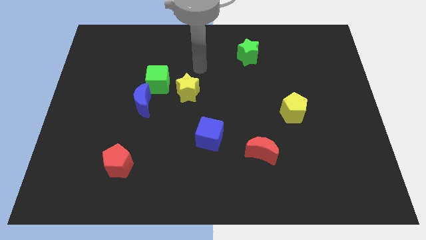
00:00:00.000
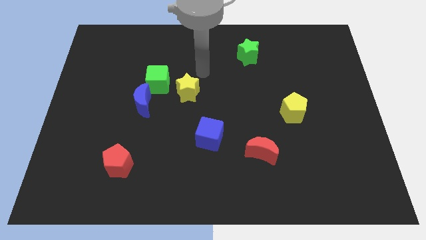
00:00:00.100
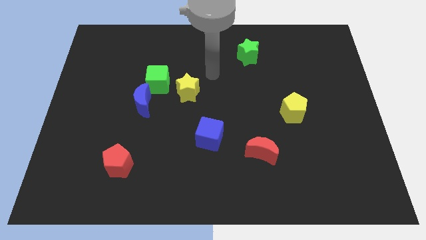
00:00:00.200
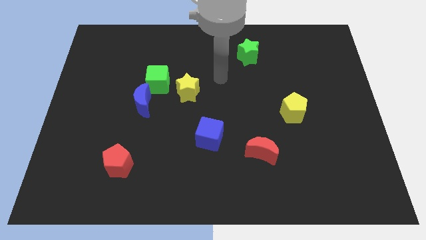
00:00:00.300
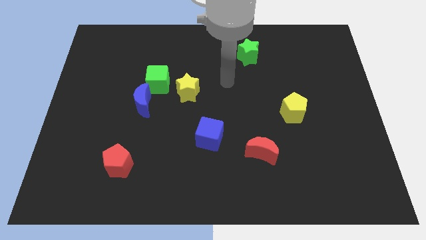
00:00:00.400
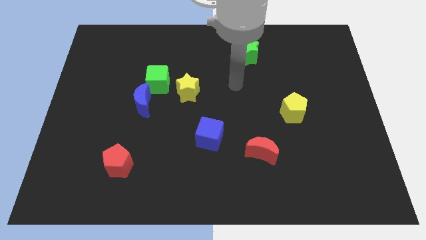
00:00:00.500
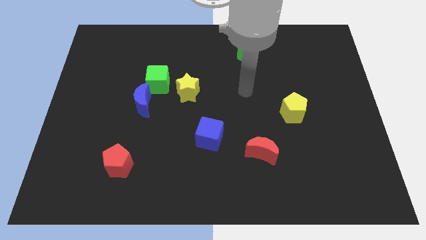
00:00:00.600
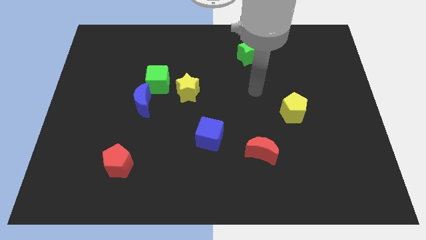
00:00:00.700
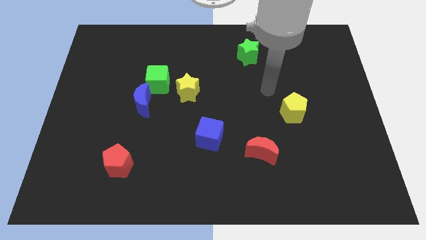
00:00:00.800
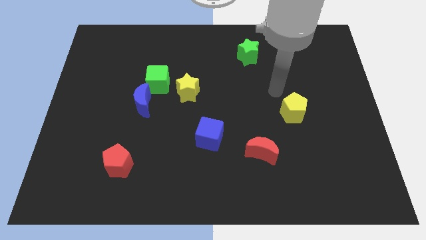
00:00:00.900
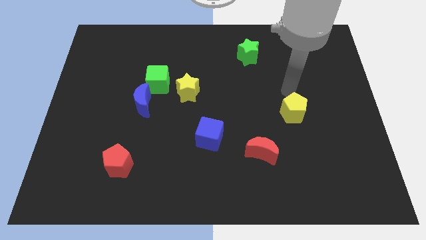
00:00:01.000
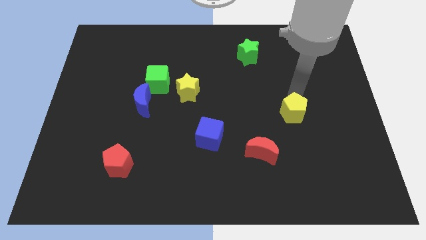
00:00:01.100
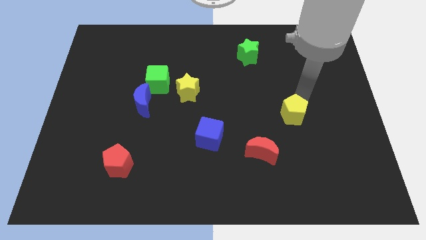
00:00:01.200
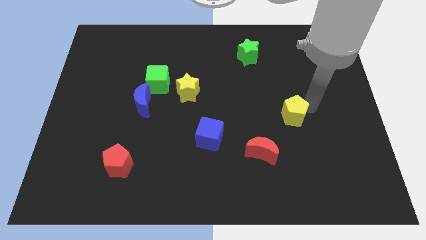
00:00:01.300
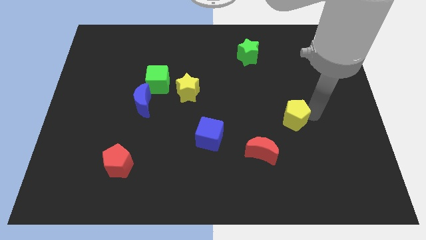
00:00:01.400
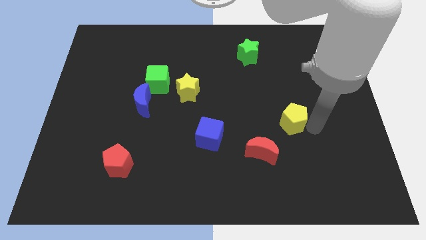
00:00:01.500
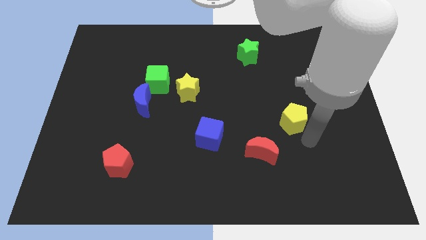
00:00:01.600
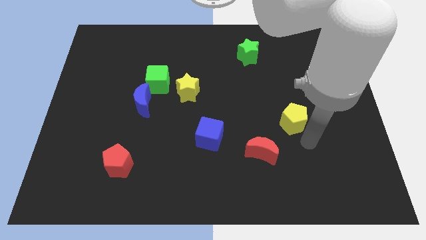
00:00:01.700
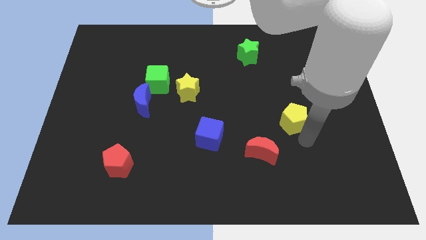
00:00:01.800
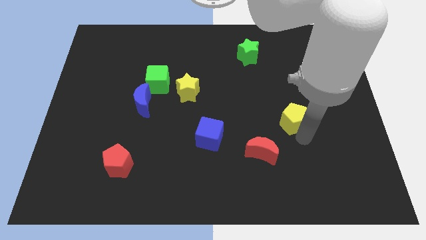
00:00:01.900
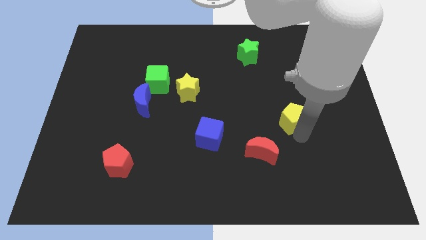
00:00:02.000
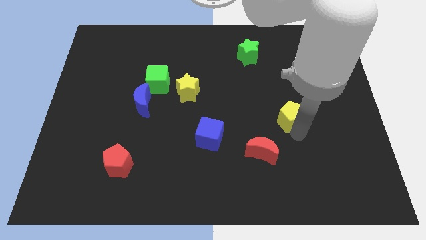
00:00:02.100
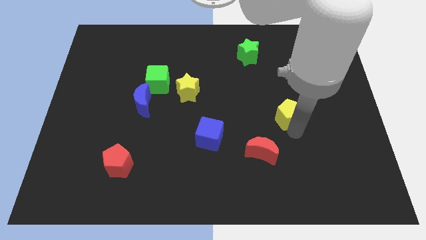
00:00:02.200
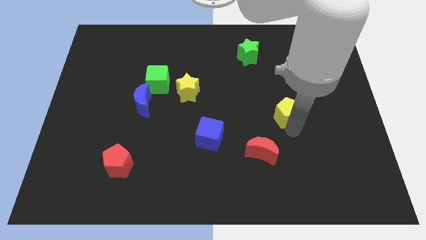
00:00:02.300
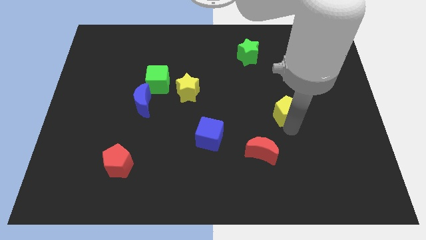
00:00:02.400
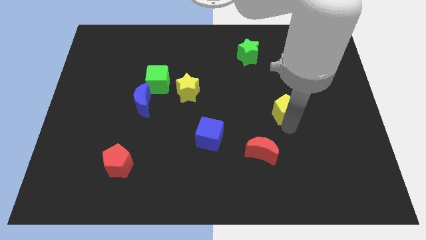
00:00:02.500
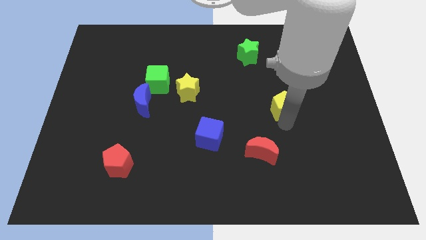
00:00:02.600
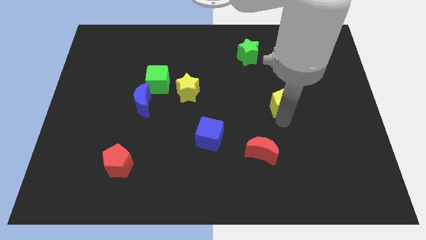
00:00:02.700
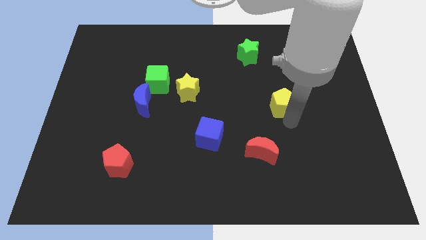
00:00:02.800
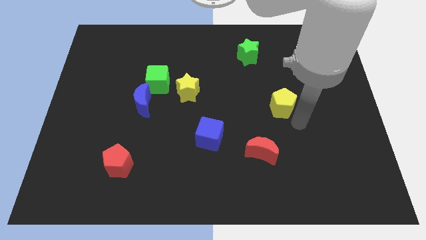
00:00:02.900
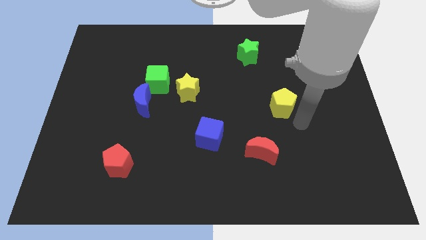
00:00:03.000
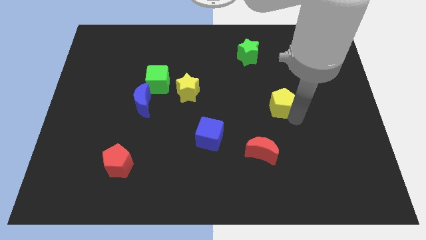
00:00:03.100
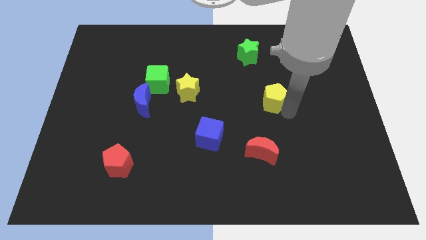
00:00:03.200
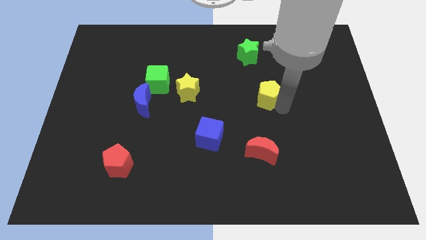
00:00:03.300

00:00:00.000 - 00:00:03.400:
slightly slide the yellow pentagon up and to the left

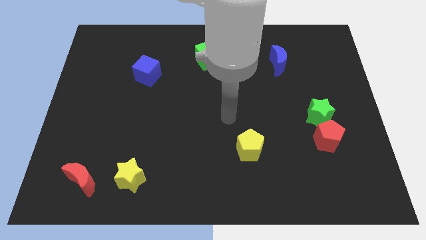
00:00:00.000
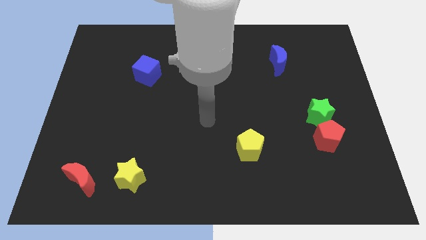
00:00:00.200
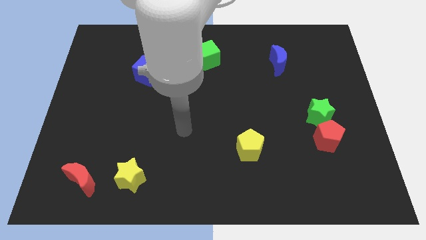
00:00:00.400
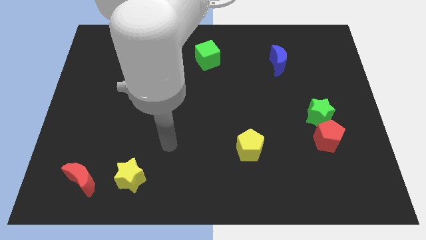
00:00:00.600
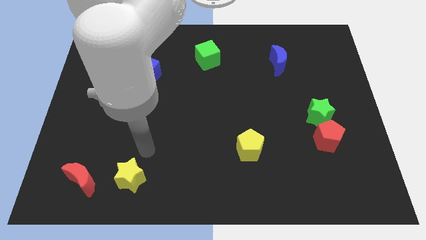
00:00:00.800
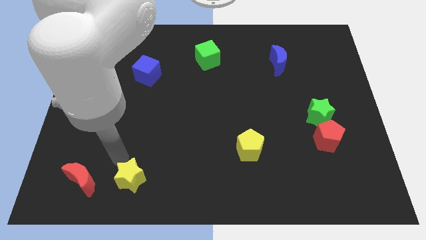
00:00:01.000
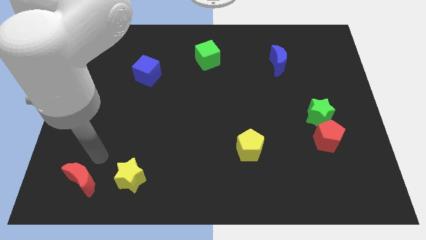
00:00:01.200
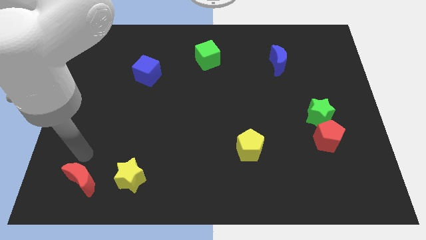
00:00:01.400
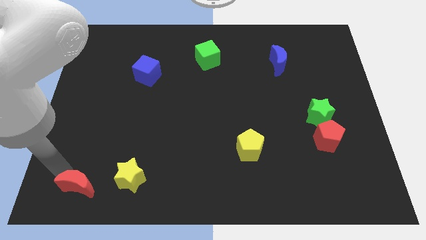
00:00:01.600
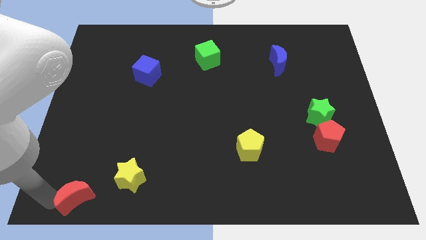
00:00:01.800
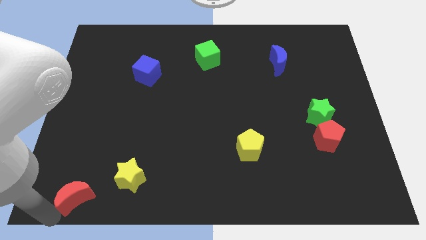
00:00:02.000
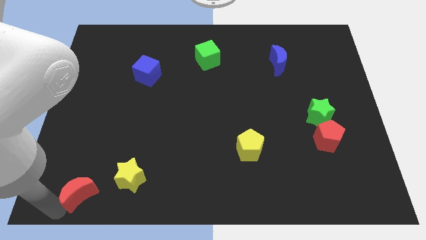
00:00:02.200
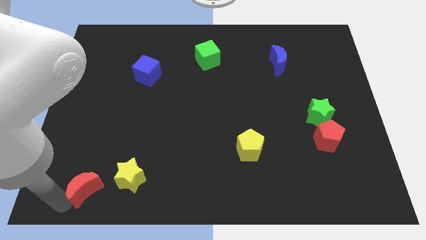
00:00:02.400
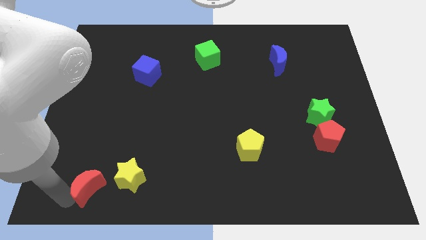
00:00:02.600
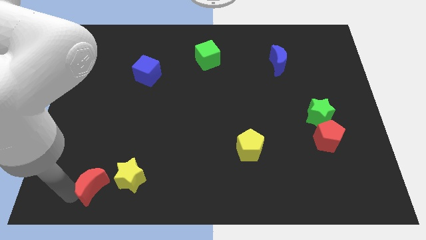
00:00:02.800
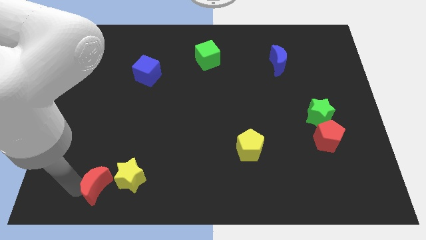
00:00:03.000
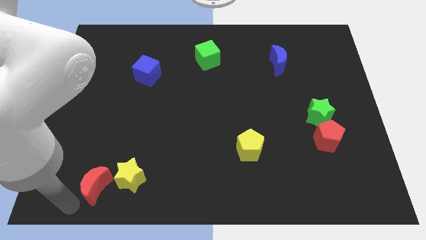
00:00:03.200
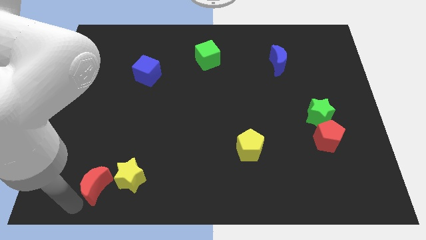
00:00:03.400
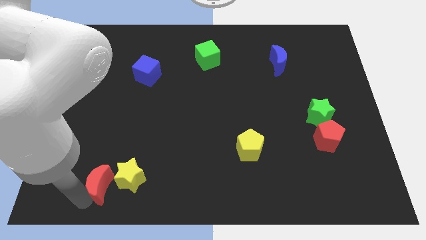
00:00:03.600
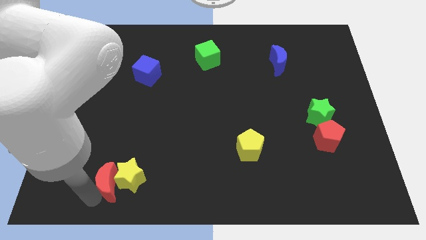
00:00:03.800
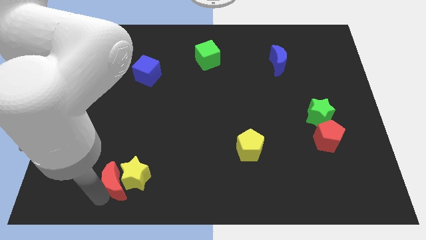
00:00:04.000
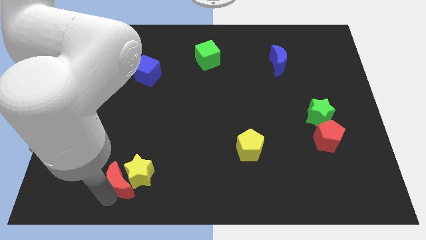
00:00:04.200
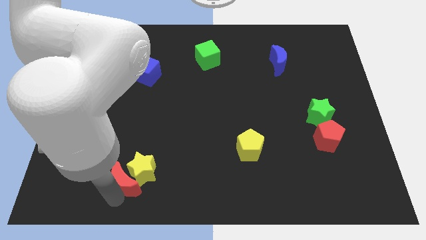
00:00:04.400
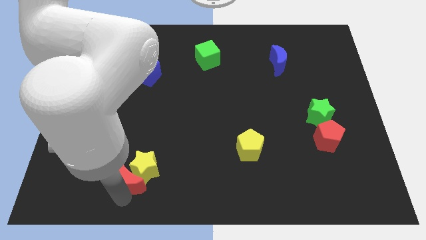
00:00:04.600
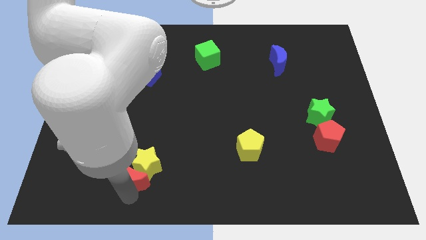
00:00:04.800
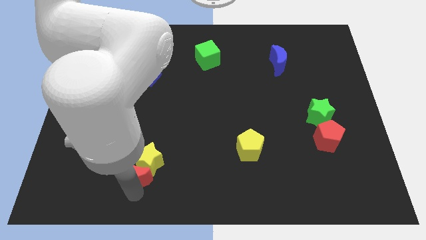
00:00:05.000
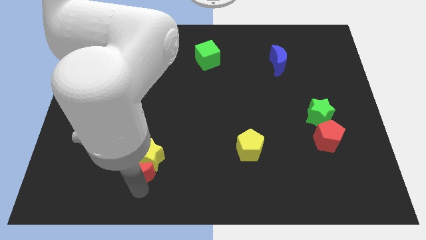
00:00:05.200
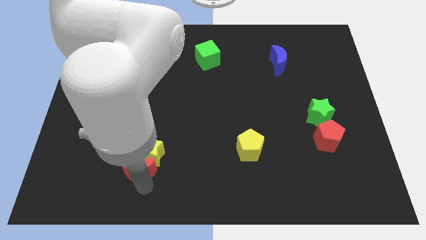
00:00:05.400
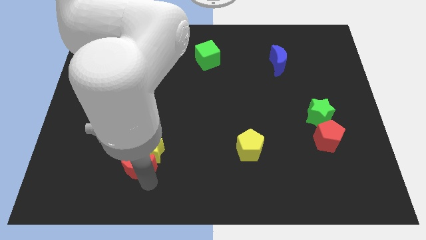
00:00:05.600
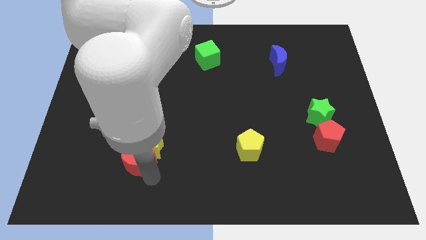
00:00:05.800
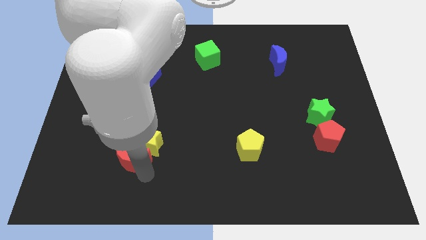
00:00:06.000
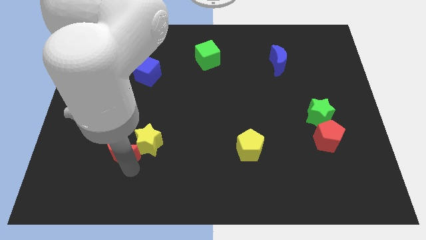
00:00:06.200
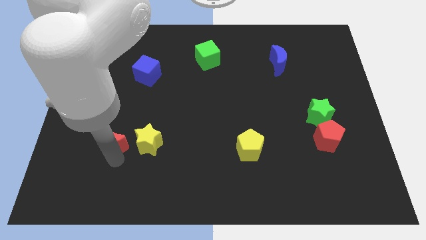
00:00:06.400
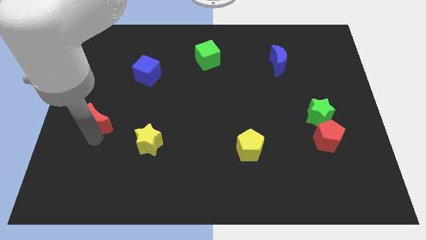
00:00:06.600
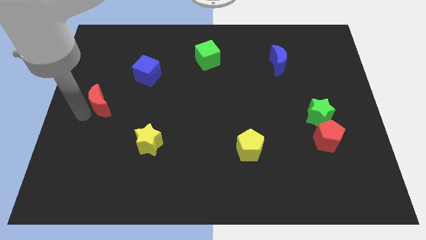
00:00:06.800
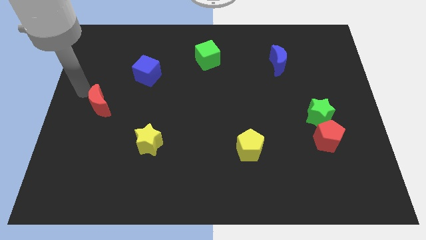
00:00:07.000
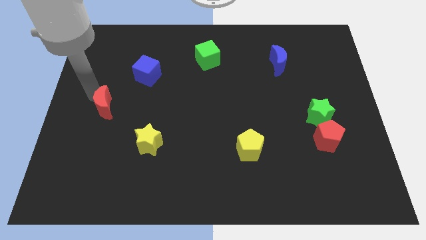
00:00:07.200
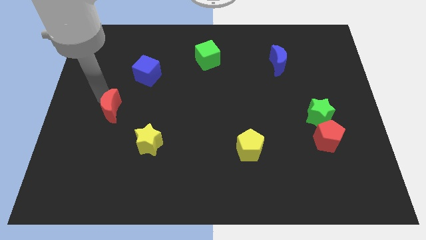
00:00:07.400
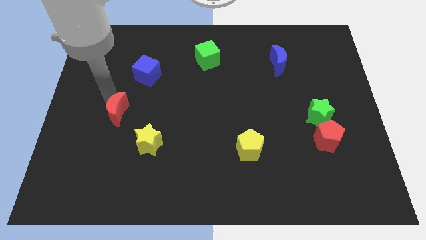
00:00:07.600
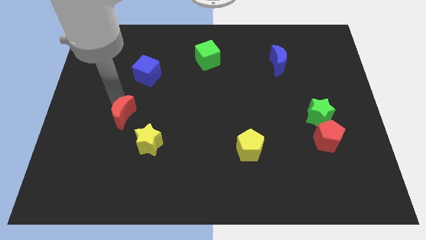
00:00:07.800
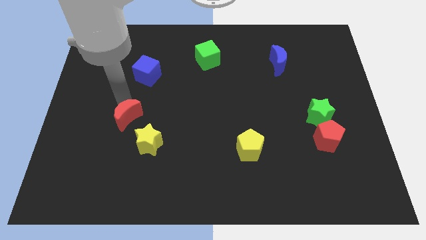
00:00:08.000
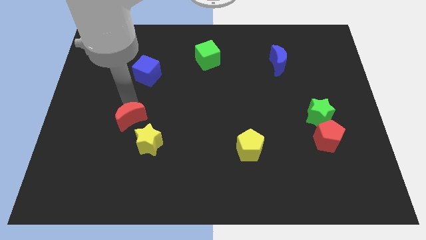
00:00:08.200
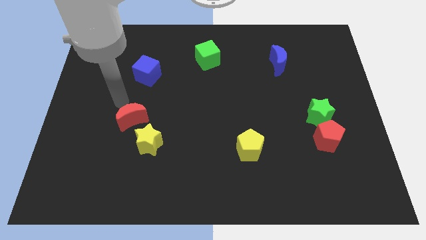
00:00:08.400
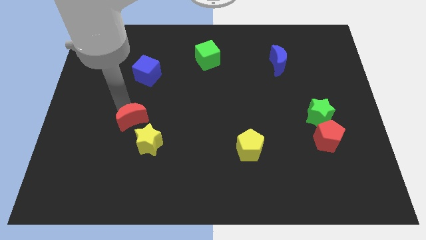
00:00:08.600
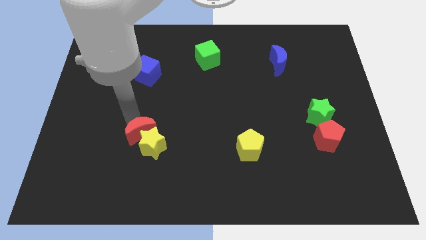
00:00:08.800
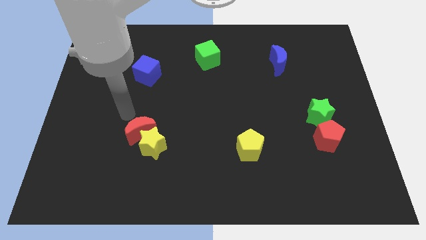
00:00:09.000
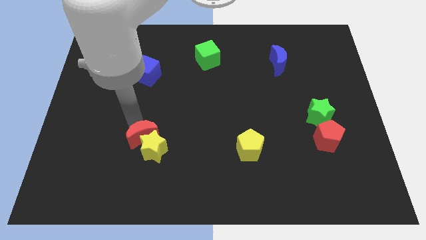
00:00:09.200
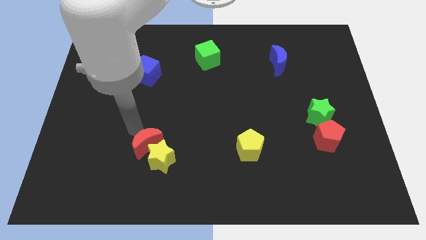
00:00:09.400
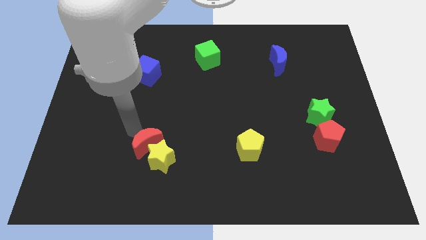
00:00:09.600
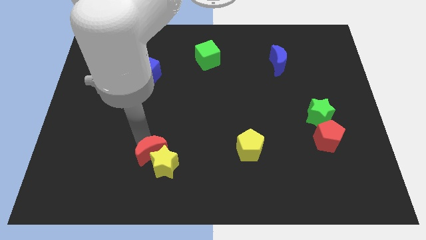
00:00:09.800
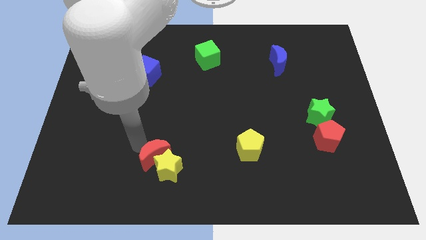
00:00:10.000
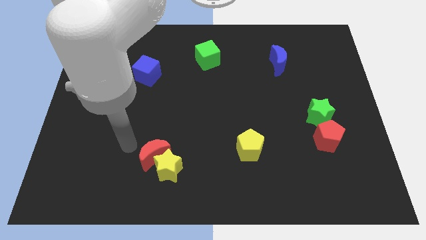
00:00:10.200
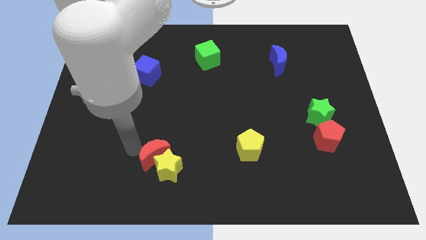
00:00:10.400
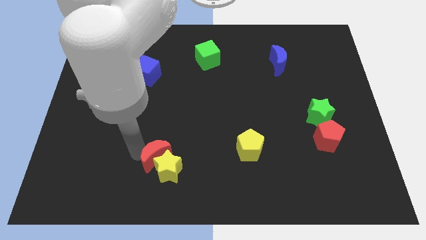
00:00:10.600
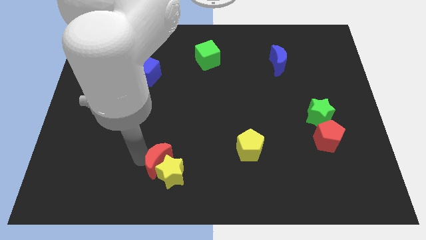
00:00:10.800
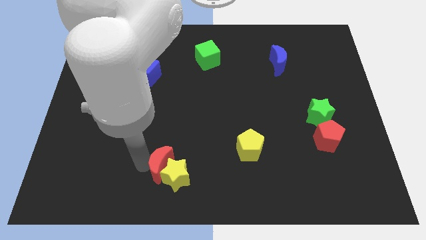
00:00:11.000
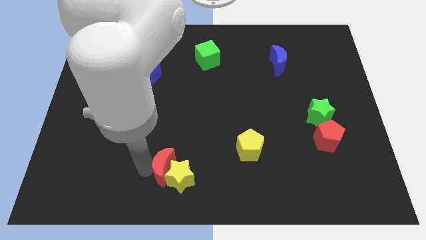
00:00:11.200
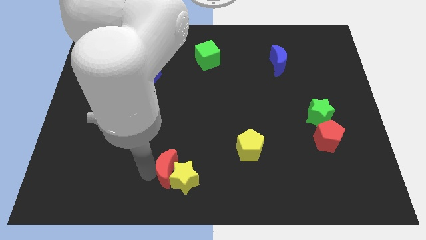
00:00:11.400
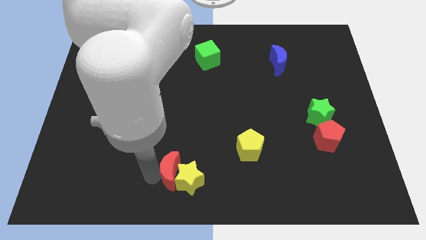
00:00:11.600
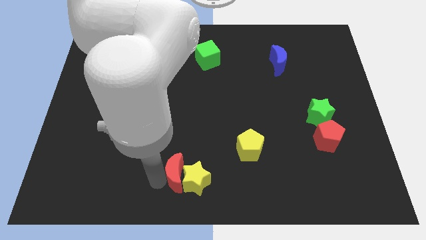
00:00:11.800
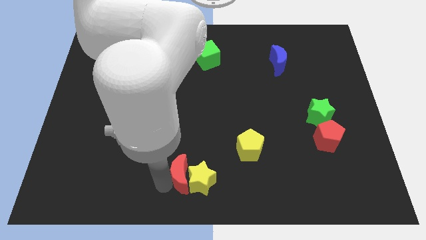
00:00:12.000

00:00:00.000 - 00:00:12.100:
slide the red moon to the right
